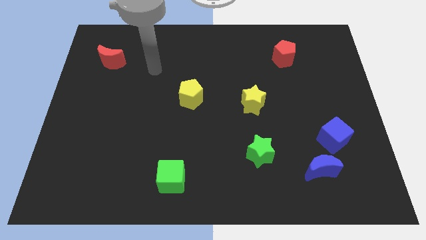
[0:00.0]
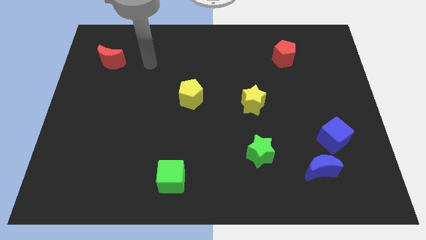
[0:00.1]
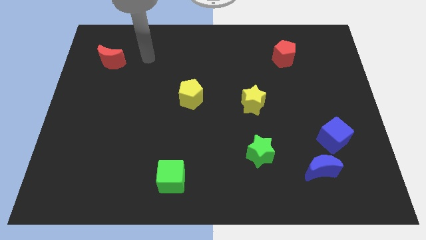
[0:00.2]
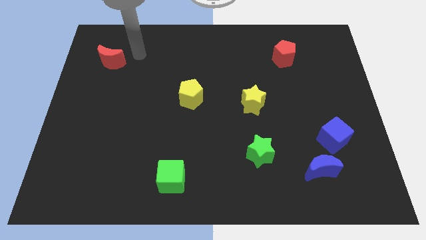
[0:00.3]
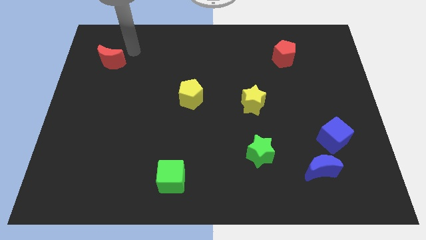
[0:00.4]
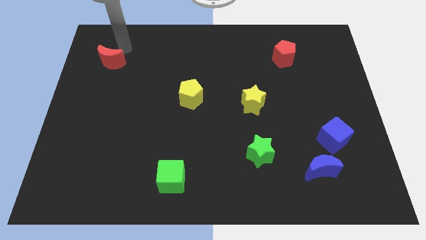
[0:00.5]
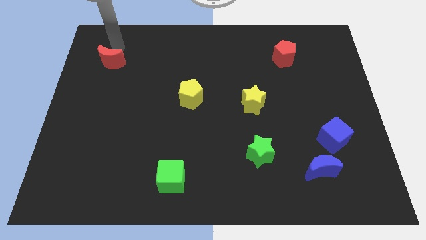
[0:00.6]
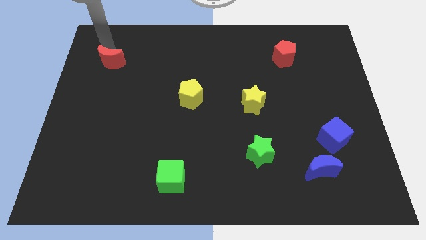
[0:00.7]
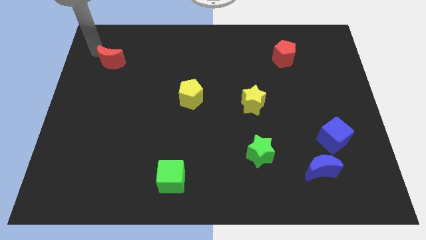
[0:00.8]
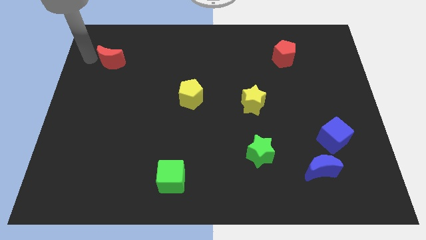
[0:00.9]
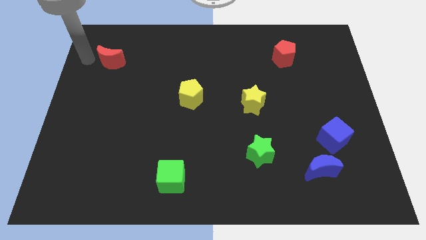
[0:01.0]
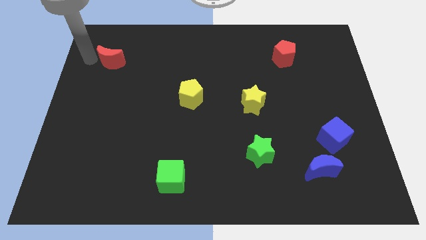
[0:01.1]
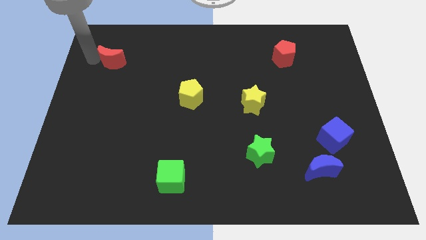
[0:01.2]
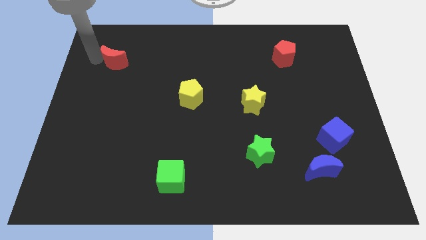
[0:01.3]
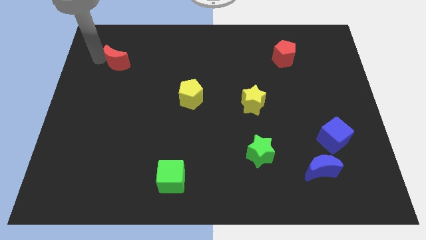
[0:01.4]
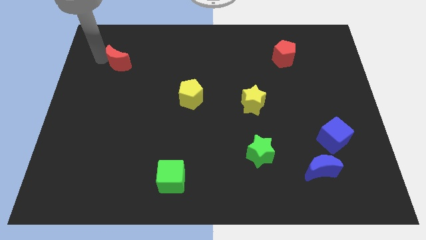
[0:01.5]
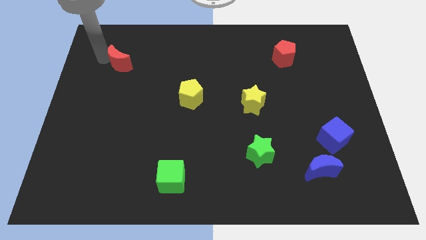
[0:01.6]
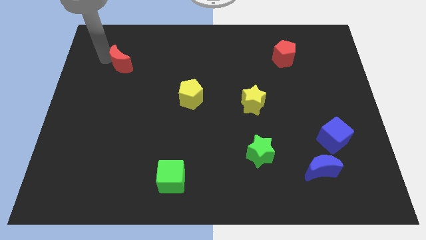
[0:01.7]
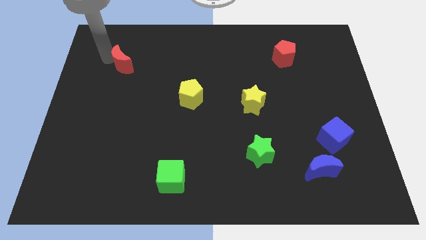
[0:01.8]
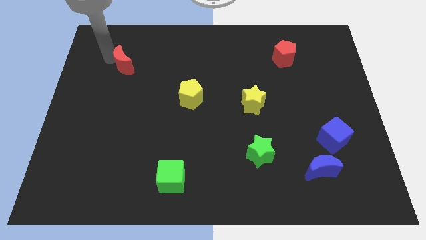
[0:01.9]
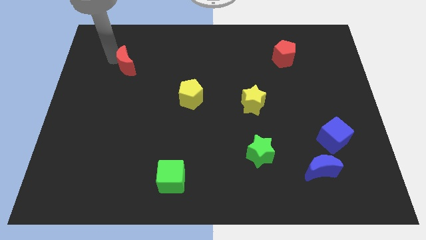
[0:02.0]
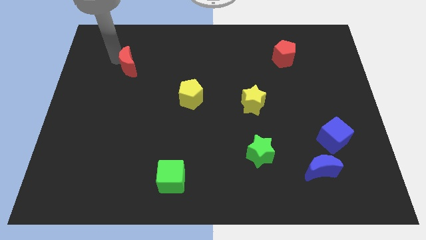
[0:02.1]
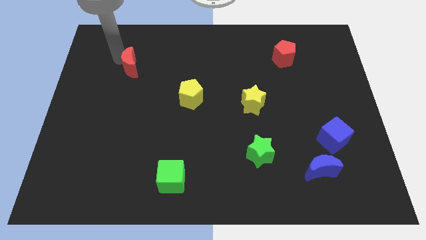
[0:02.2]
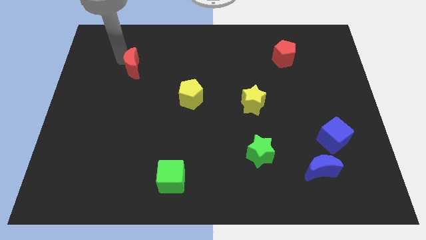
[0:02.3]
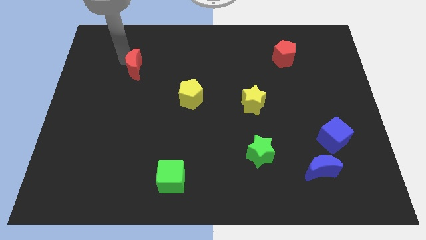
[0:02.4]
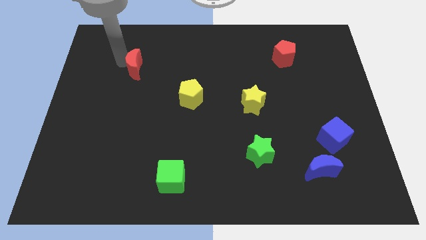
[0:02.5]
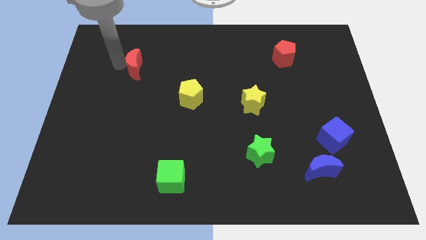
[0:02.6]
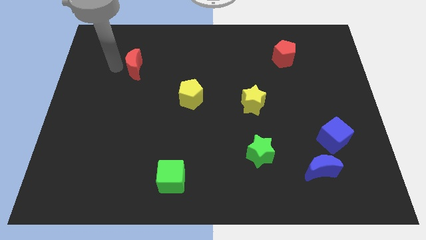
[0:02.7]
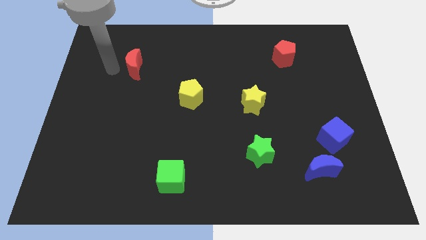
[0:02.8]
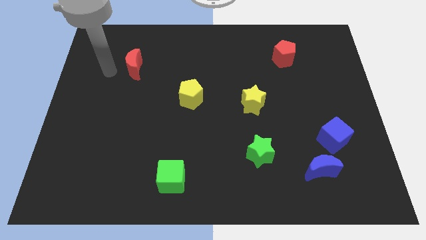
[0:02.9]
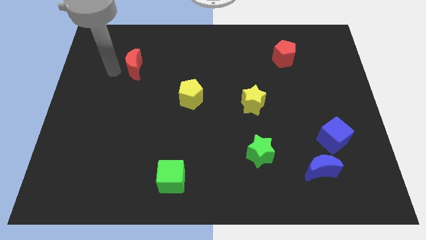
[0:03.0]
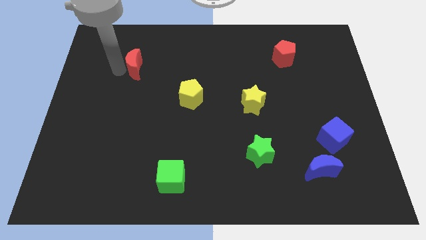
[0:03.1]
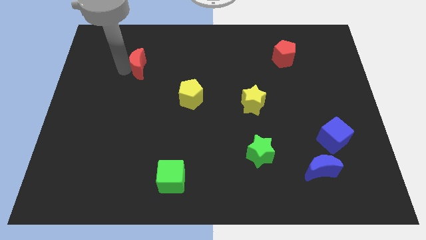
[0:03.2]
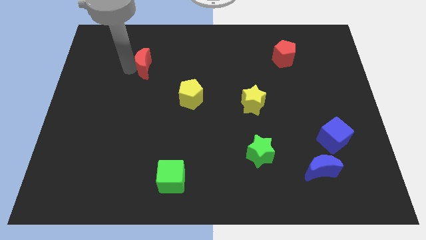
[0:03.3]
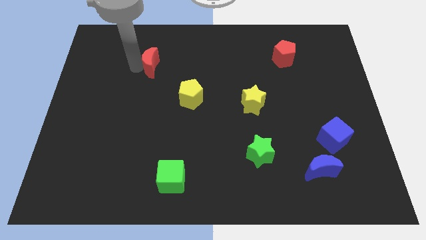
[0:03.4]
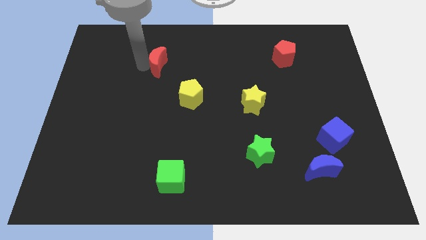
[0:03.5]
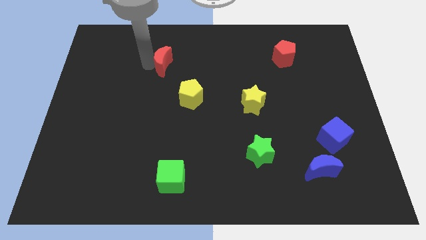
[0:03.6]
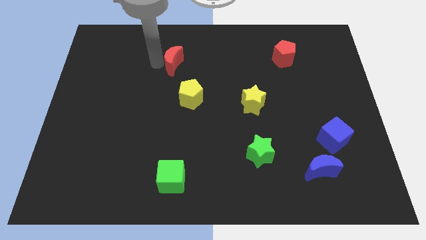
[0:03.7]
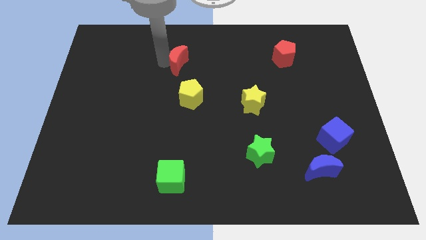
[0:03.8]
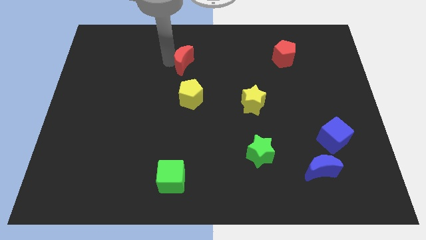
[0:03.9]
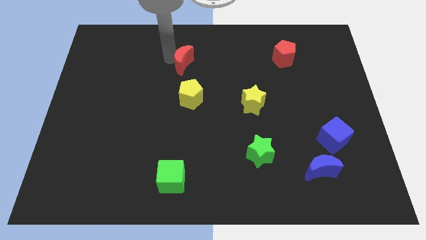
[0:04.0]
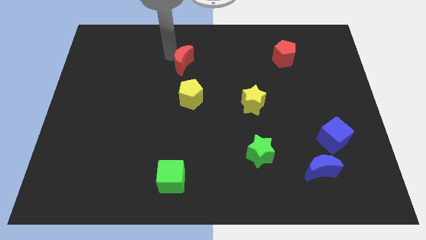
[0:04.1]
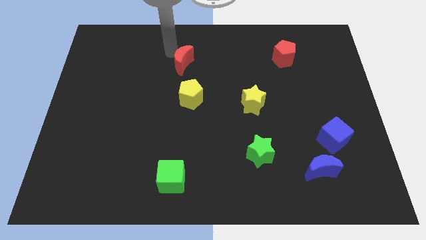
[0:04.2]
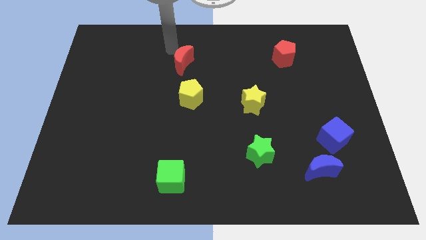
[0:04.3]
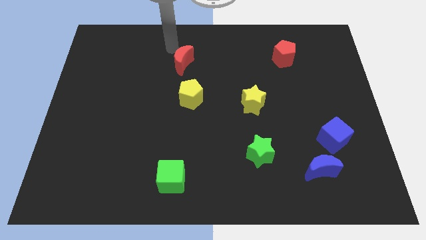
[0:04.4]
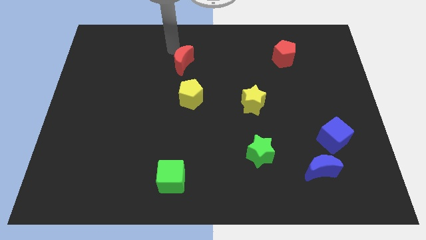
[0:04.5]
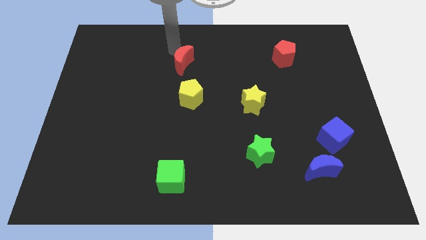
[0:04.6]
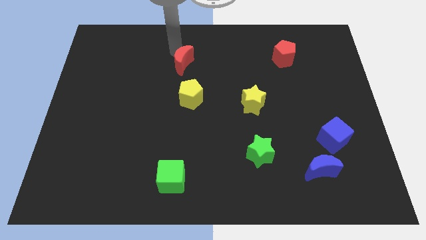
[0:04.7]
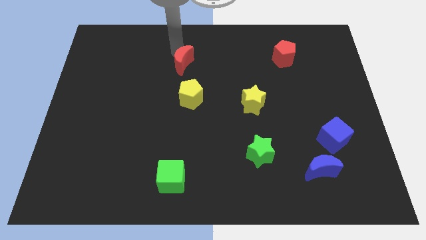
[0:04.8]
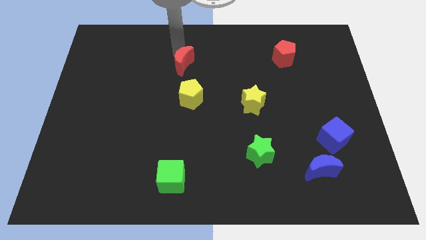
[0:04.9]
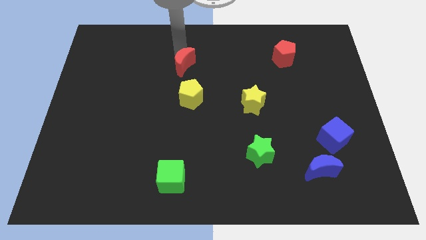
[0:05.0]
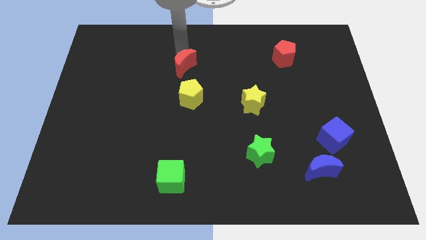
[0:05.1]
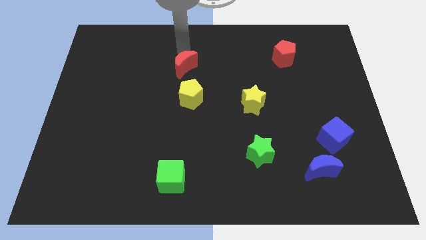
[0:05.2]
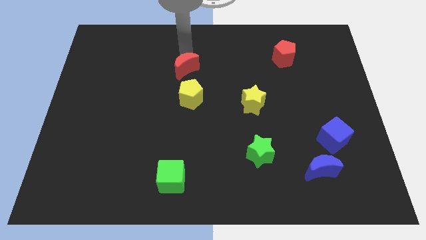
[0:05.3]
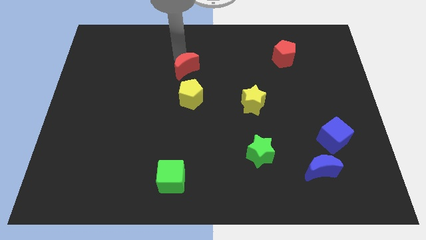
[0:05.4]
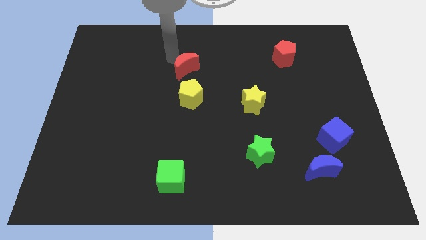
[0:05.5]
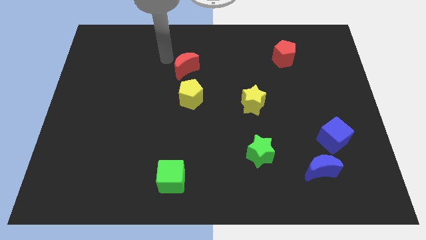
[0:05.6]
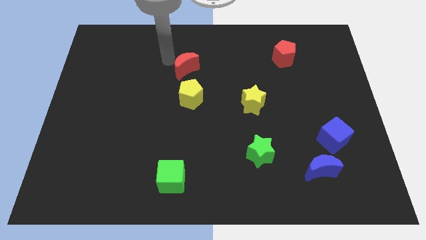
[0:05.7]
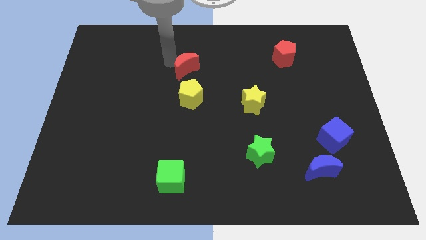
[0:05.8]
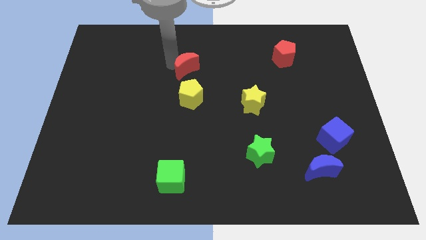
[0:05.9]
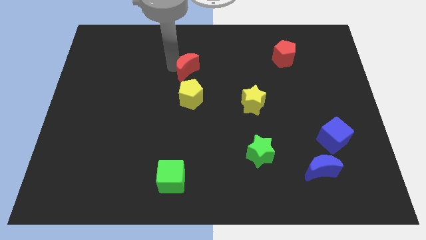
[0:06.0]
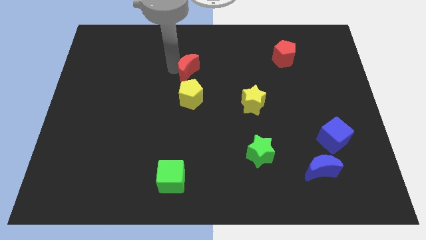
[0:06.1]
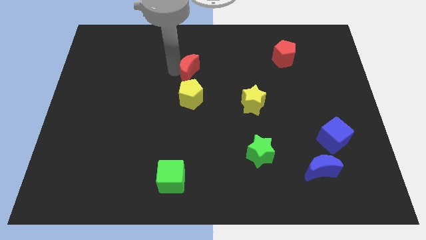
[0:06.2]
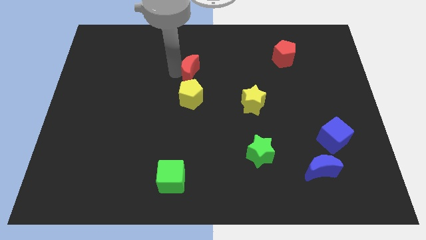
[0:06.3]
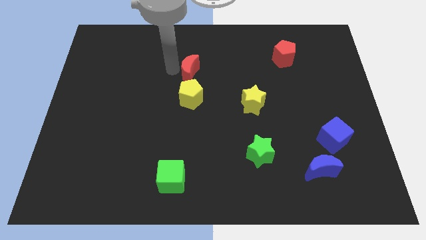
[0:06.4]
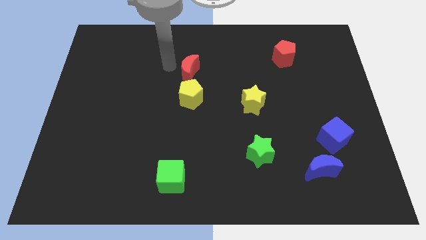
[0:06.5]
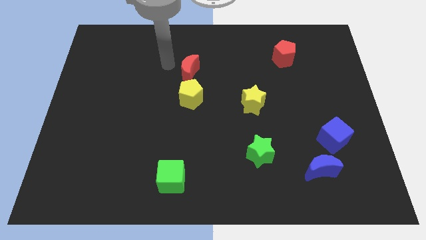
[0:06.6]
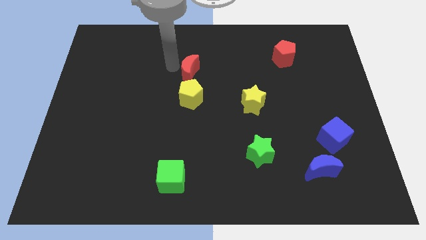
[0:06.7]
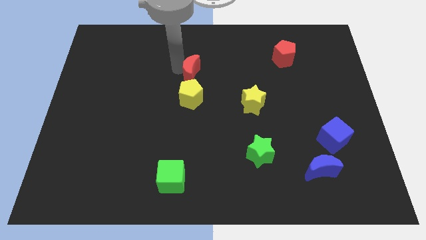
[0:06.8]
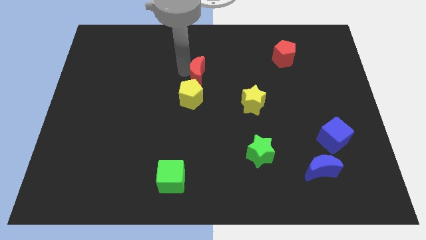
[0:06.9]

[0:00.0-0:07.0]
push the red moon to the top right of the yellow pentagon
